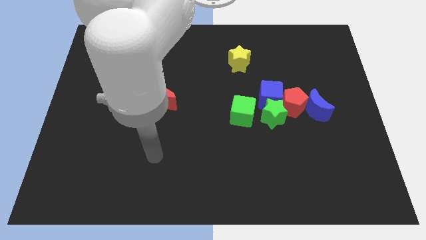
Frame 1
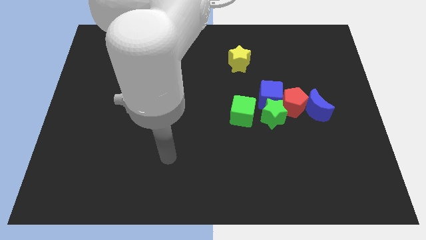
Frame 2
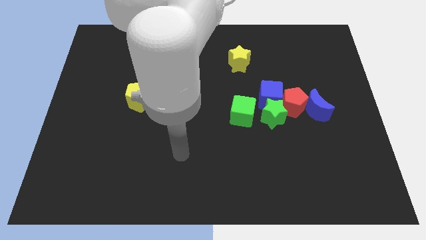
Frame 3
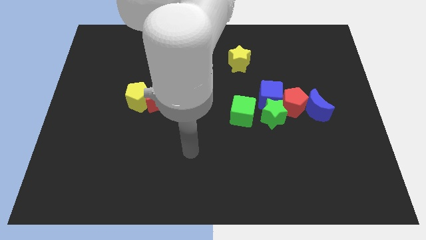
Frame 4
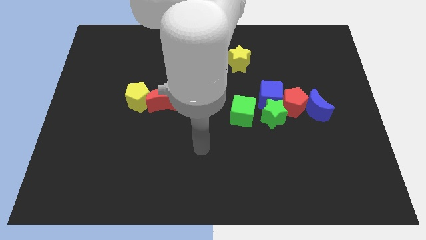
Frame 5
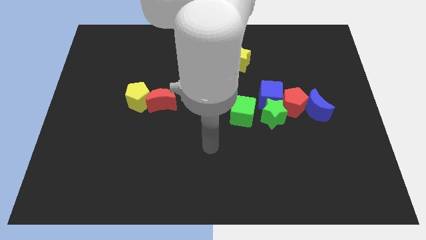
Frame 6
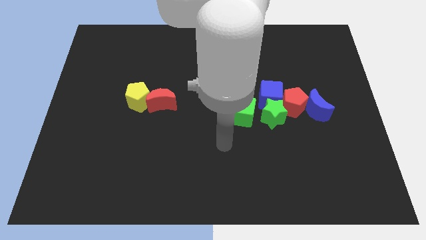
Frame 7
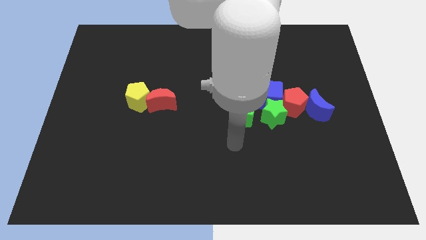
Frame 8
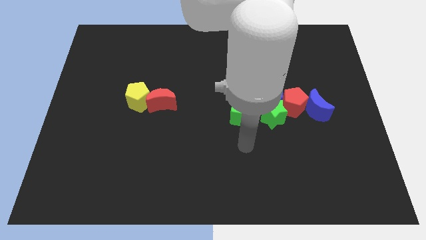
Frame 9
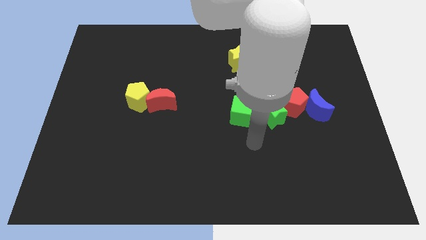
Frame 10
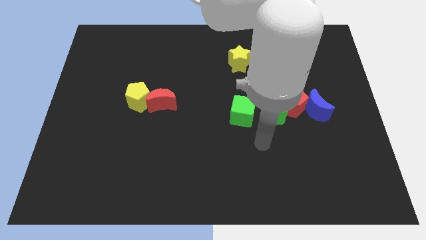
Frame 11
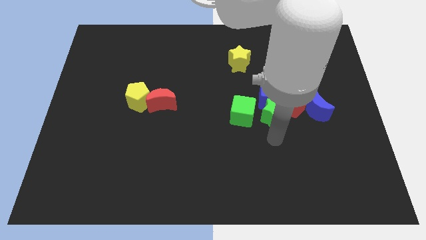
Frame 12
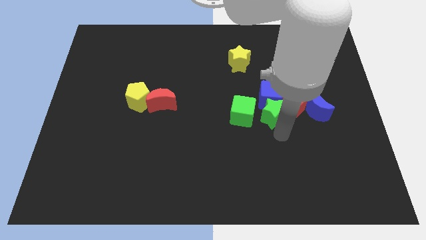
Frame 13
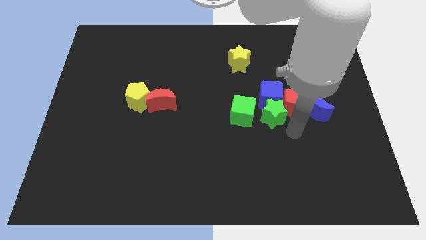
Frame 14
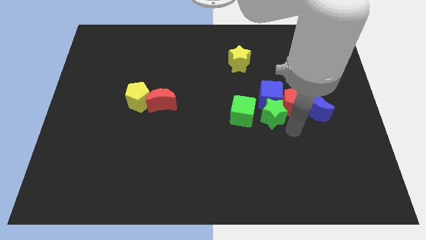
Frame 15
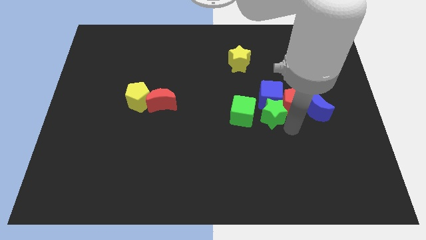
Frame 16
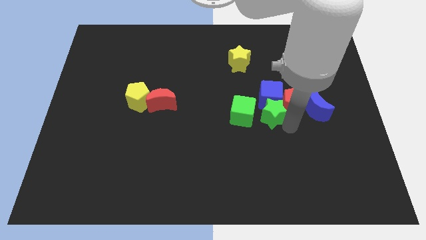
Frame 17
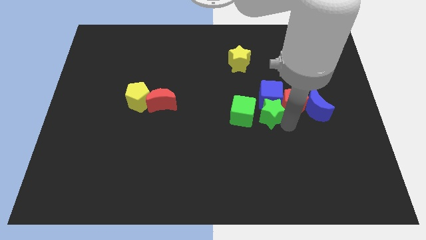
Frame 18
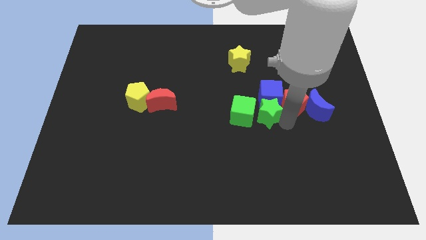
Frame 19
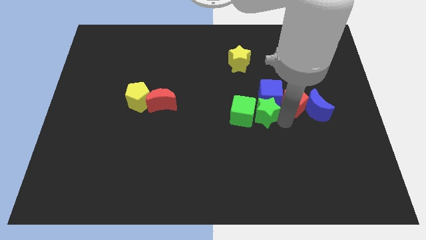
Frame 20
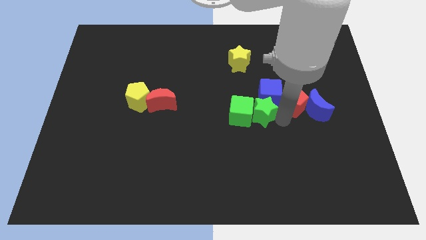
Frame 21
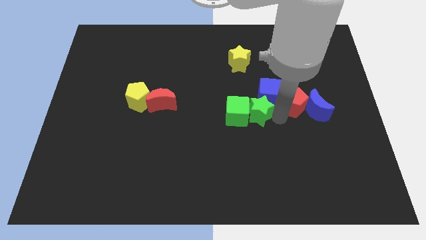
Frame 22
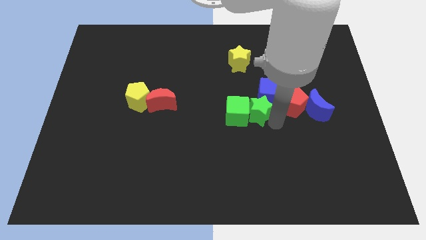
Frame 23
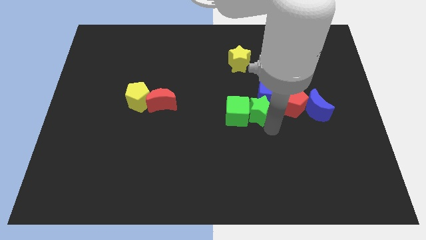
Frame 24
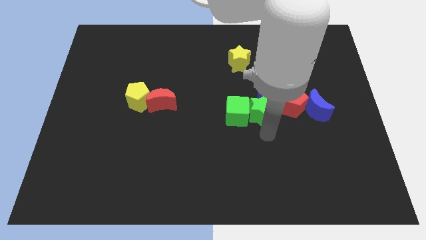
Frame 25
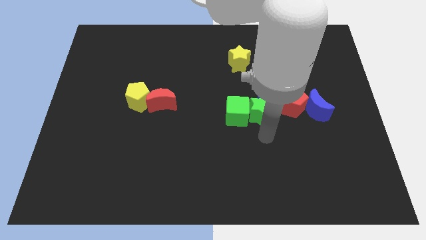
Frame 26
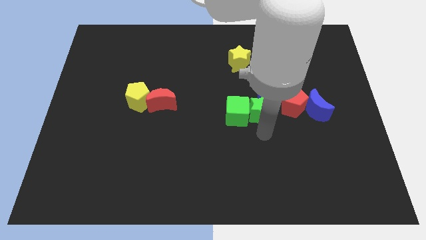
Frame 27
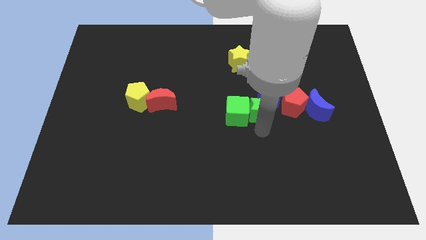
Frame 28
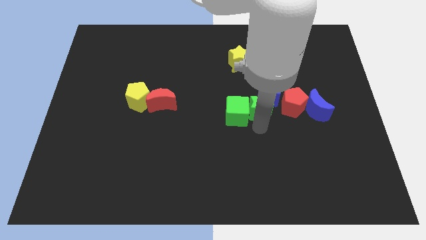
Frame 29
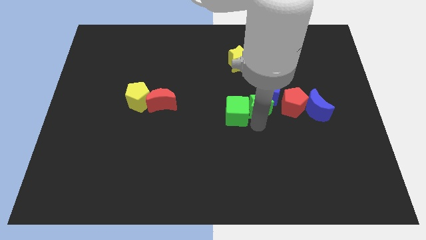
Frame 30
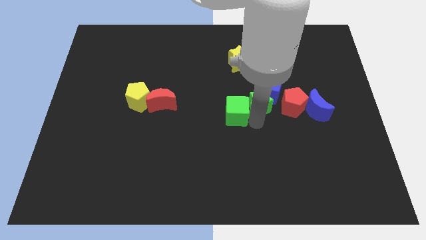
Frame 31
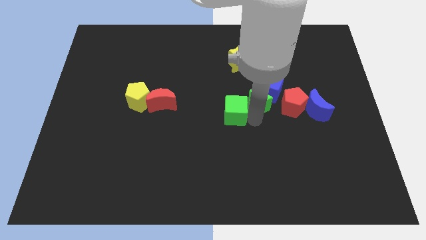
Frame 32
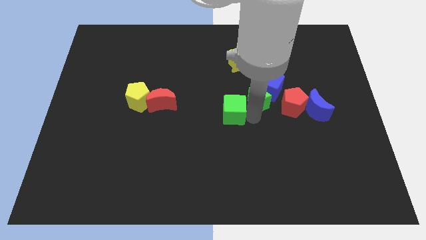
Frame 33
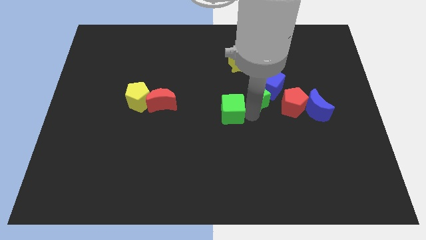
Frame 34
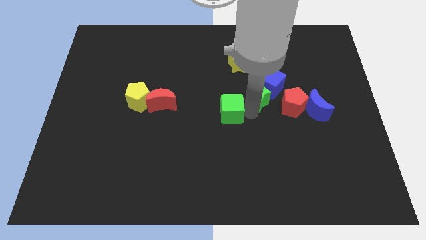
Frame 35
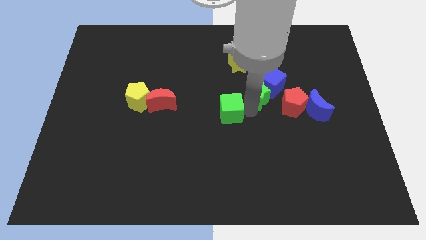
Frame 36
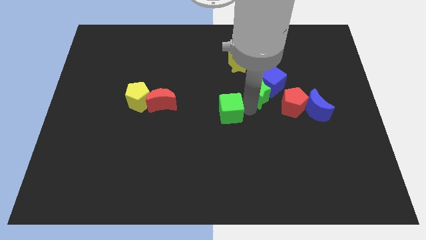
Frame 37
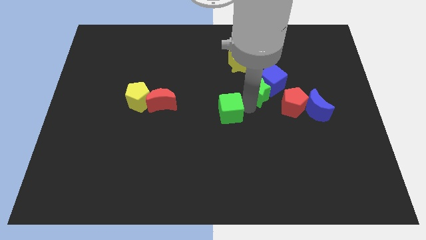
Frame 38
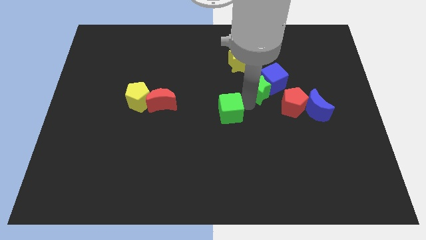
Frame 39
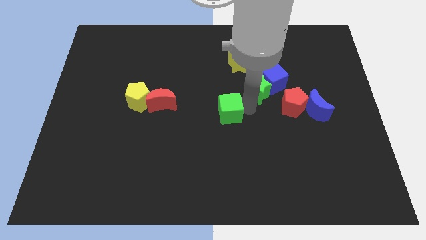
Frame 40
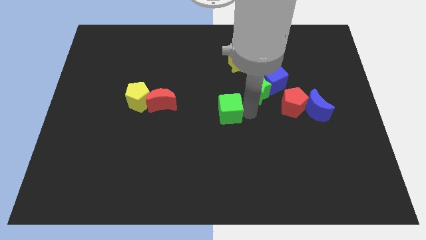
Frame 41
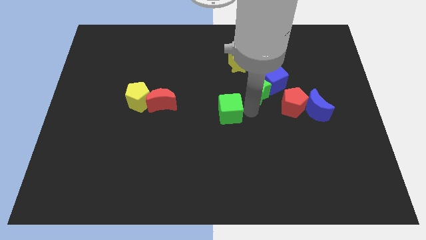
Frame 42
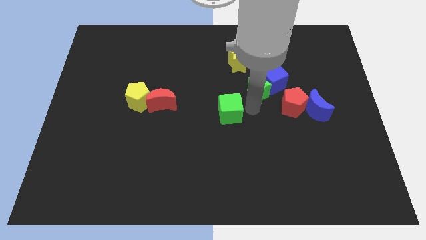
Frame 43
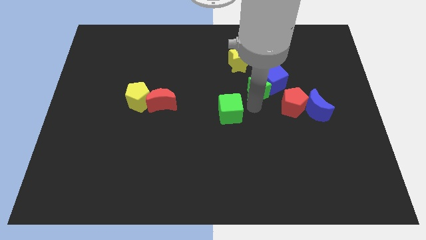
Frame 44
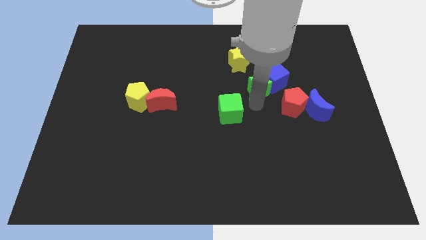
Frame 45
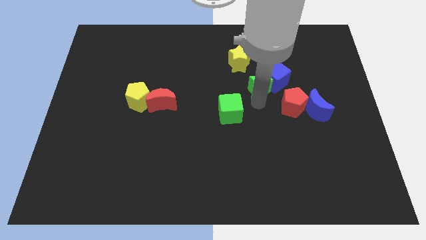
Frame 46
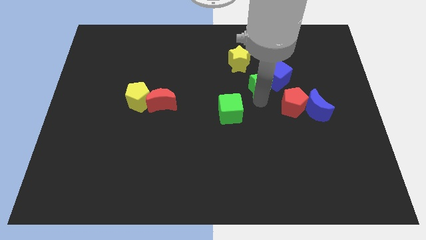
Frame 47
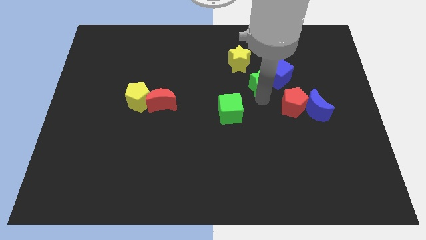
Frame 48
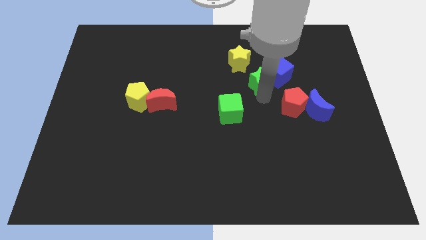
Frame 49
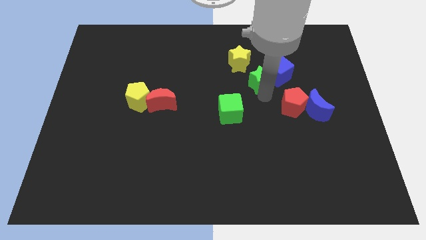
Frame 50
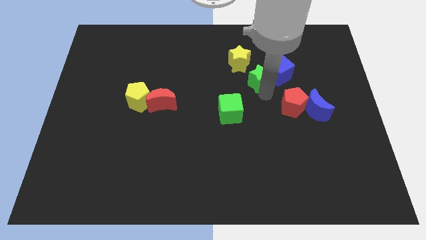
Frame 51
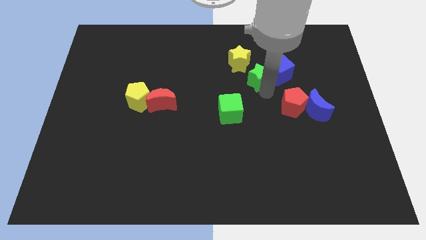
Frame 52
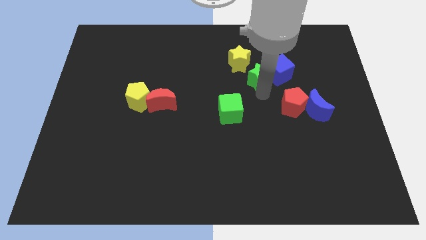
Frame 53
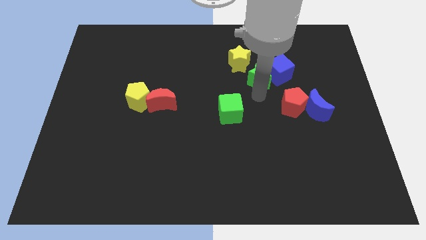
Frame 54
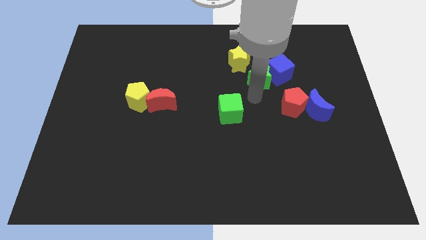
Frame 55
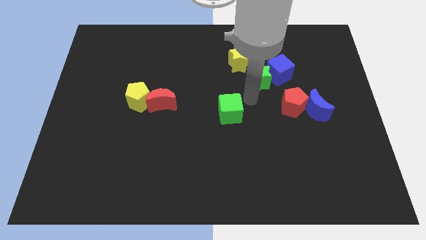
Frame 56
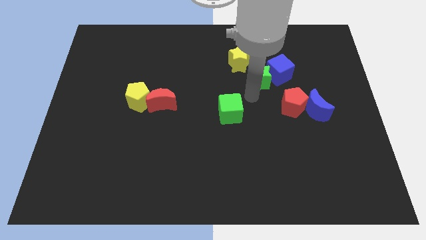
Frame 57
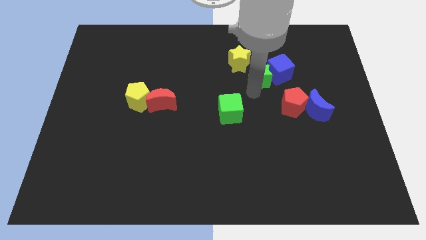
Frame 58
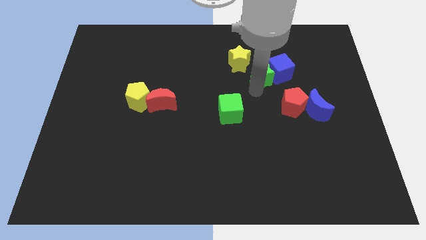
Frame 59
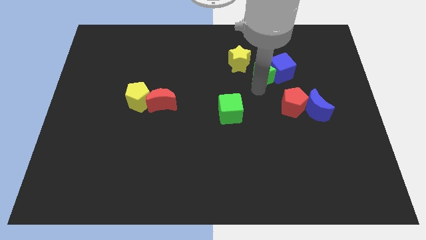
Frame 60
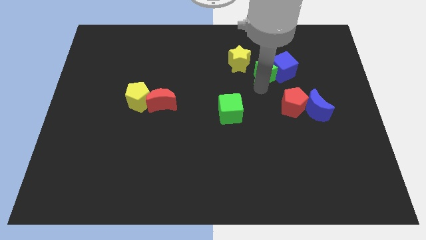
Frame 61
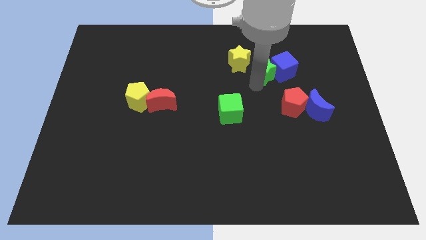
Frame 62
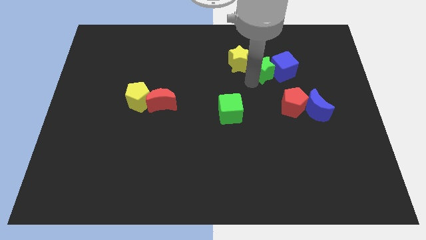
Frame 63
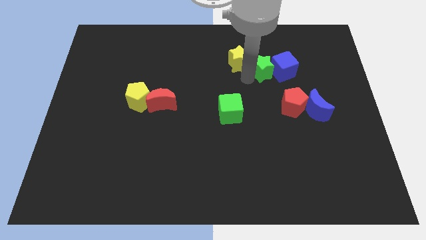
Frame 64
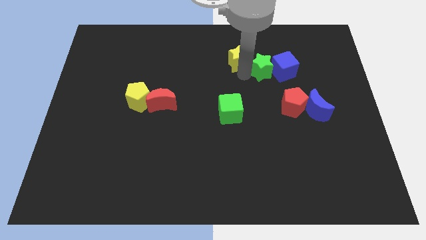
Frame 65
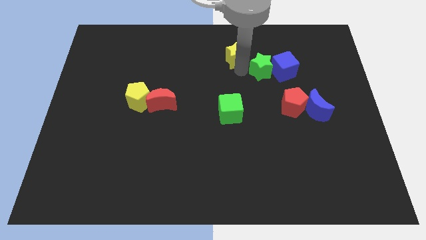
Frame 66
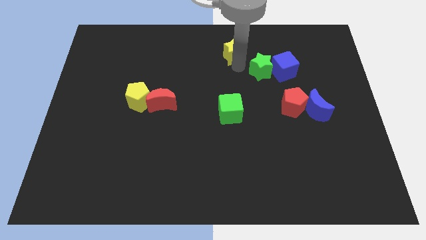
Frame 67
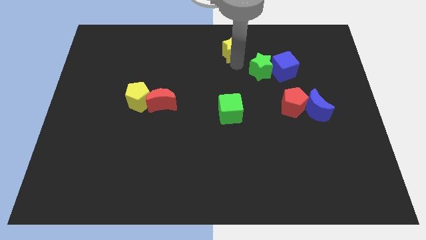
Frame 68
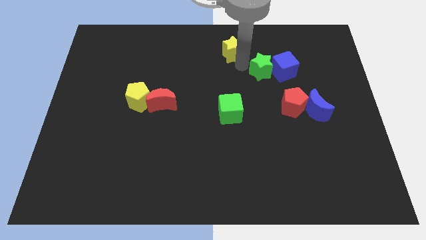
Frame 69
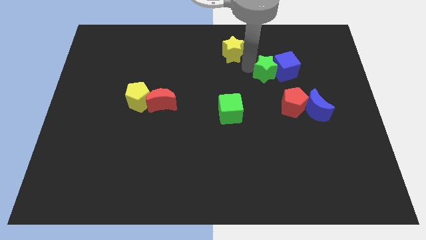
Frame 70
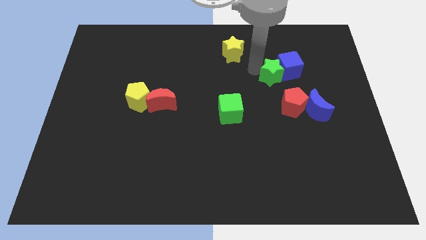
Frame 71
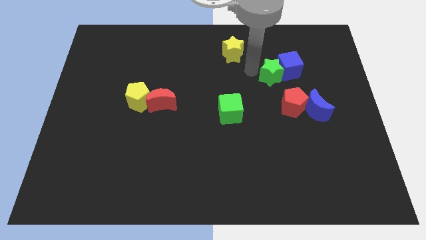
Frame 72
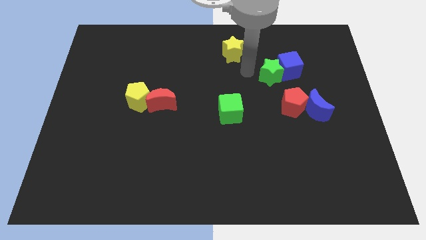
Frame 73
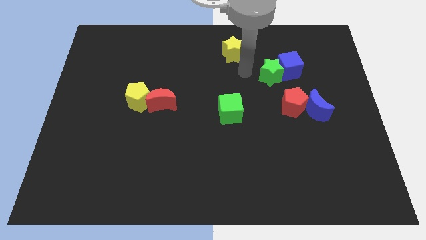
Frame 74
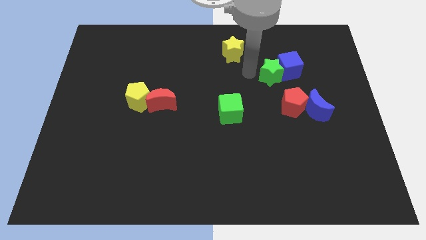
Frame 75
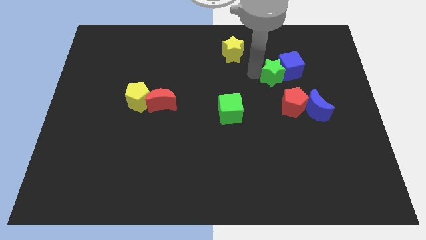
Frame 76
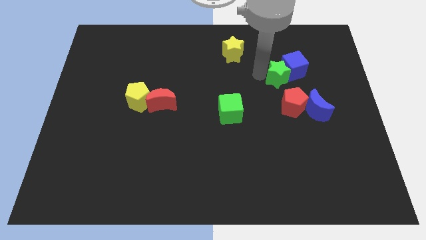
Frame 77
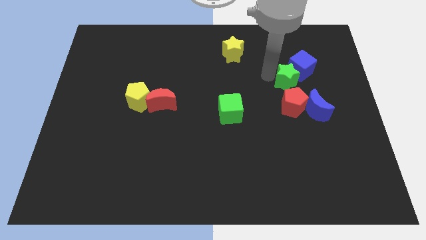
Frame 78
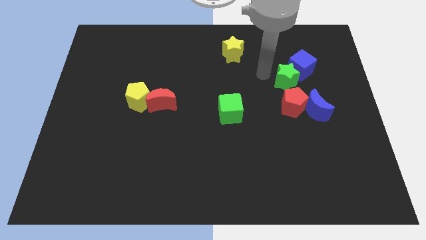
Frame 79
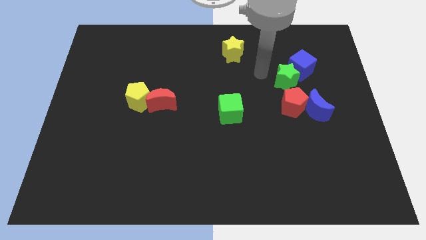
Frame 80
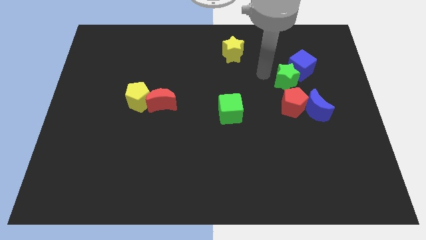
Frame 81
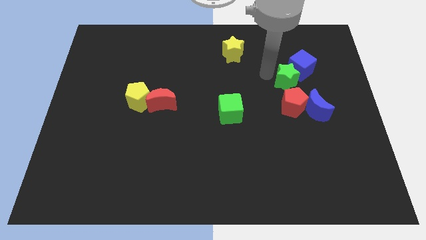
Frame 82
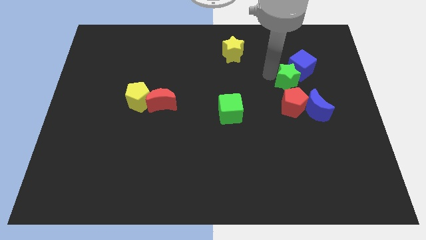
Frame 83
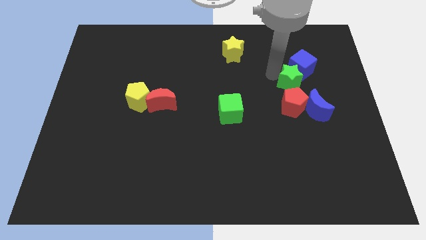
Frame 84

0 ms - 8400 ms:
push the green star to the top right of the red pentagon
